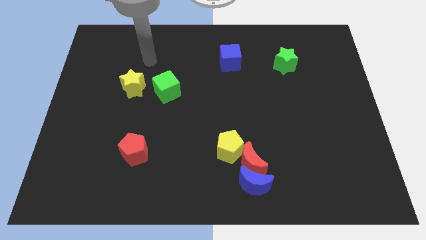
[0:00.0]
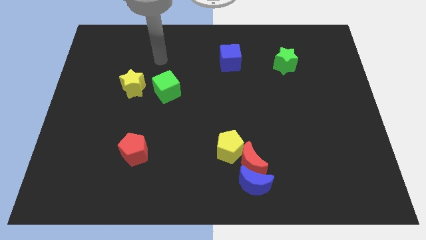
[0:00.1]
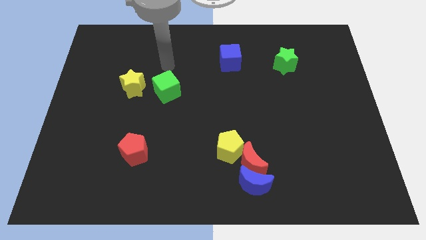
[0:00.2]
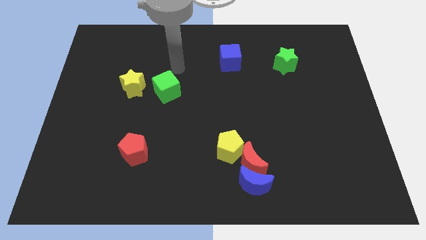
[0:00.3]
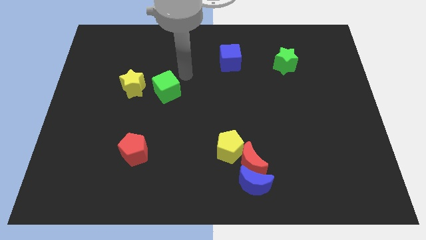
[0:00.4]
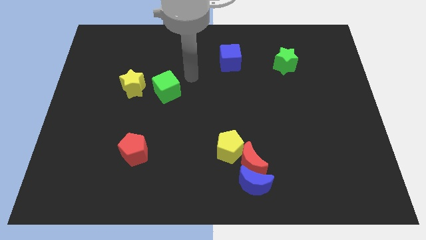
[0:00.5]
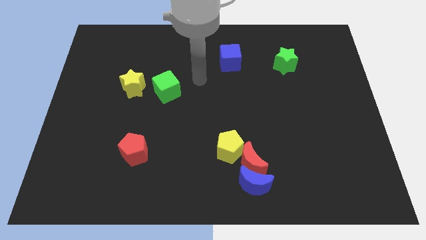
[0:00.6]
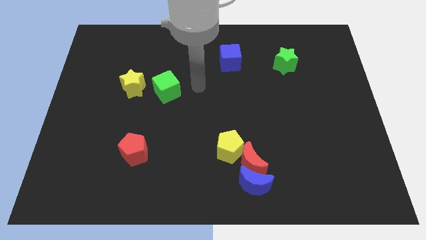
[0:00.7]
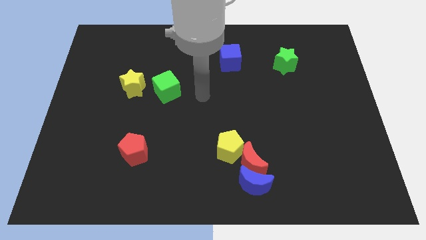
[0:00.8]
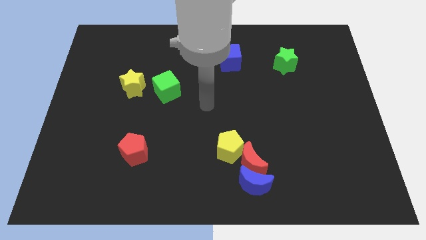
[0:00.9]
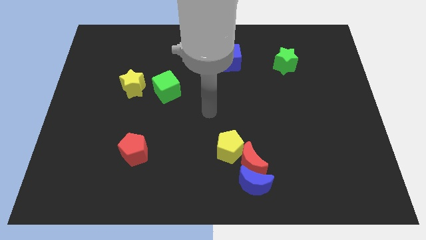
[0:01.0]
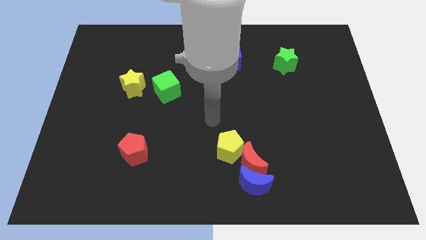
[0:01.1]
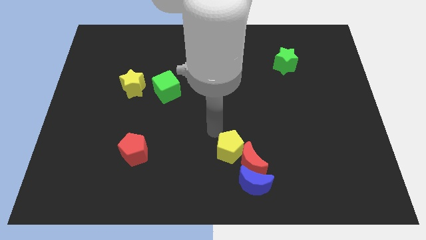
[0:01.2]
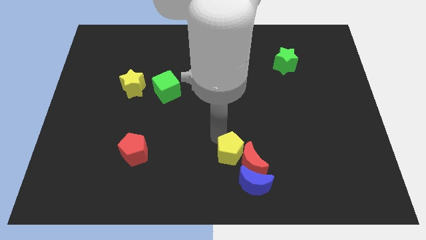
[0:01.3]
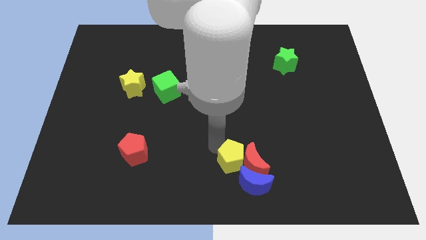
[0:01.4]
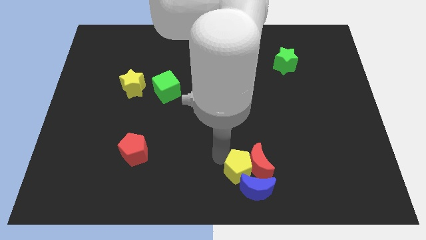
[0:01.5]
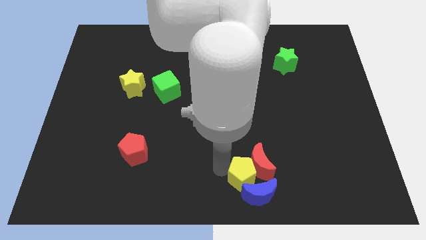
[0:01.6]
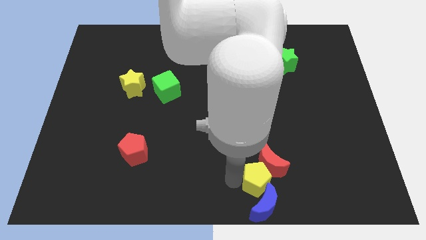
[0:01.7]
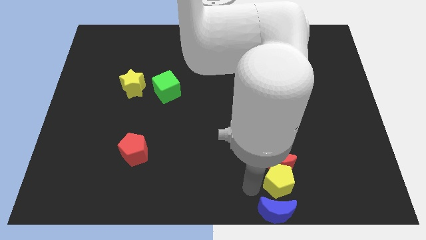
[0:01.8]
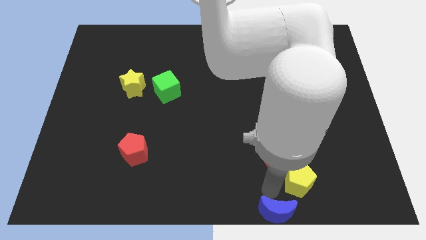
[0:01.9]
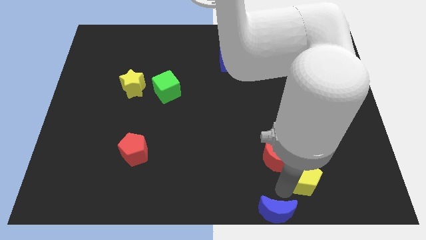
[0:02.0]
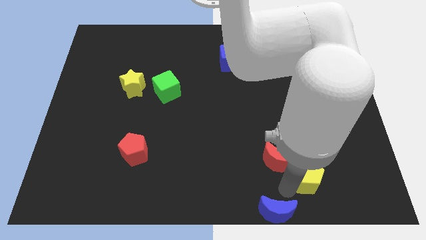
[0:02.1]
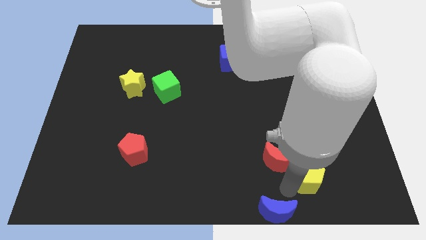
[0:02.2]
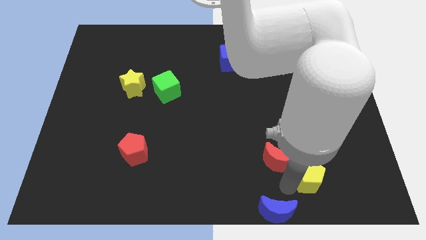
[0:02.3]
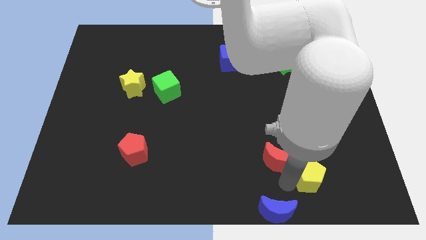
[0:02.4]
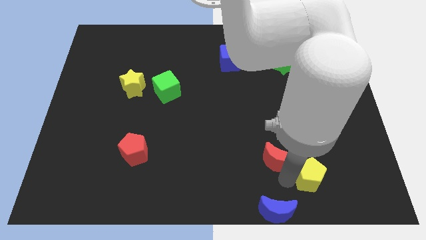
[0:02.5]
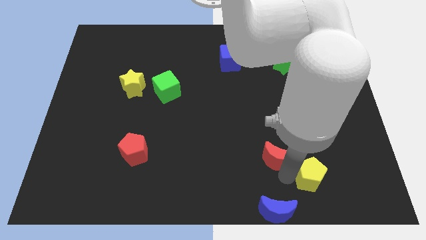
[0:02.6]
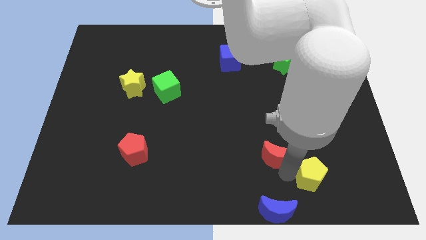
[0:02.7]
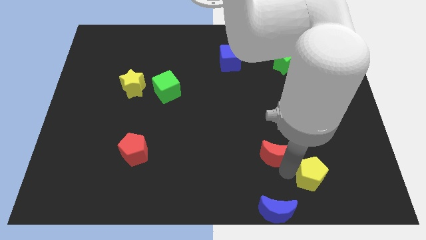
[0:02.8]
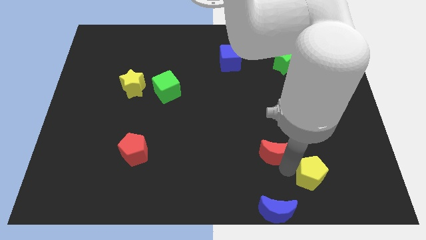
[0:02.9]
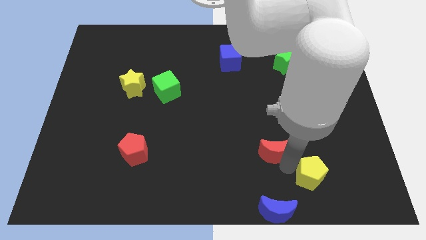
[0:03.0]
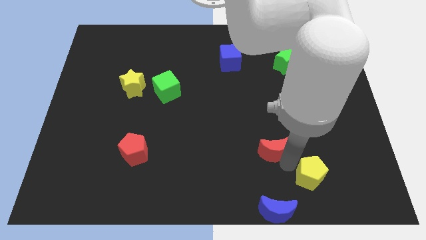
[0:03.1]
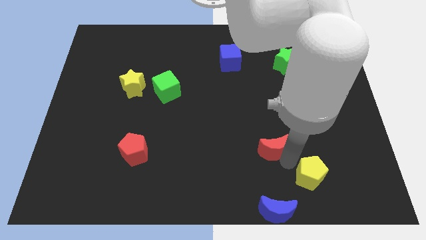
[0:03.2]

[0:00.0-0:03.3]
move the red moon away from the blue moon and yellow pentagon

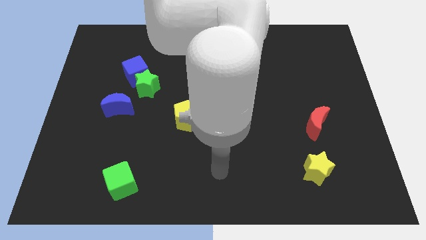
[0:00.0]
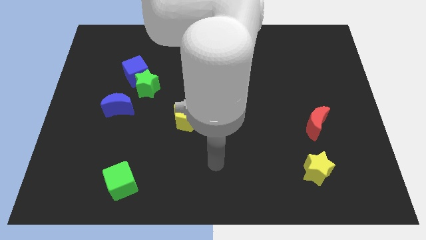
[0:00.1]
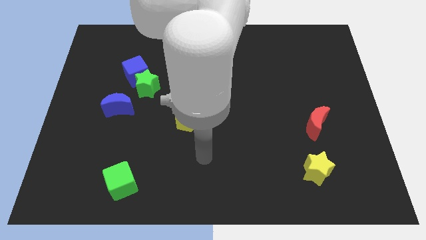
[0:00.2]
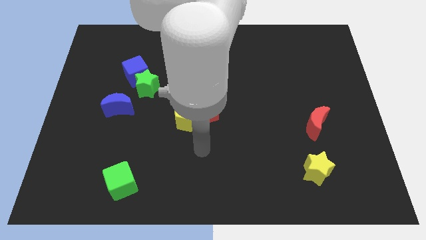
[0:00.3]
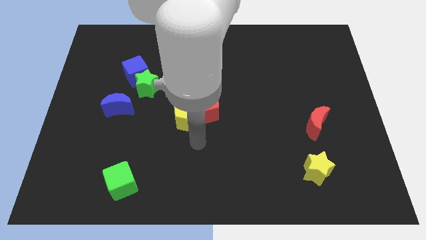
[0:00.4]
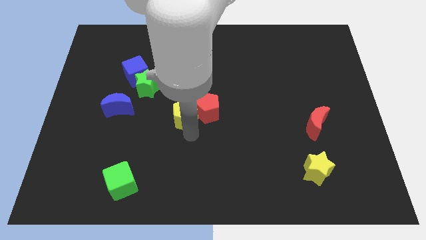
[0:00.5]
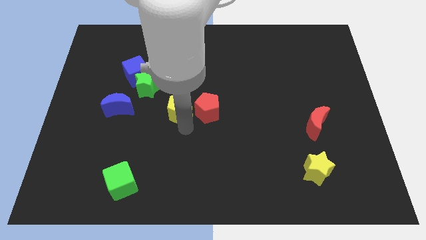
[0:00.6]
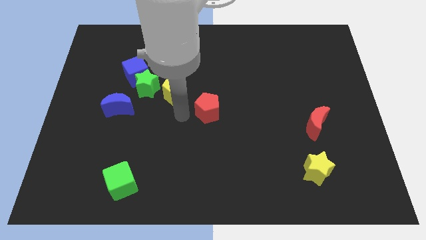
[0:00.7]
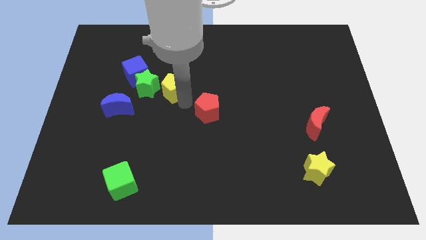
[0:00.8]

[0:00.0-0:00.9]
move the red pentagon away from the yellow pentagon

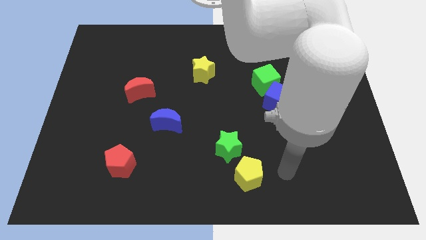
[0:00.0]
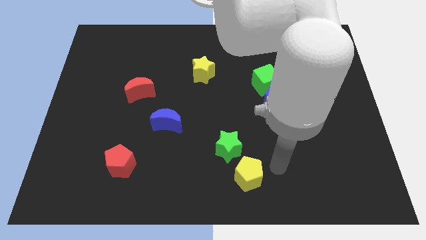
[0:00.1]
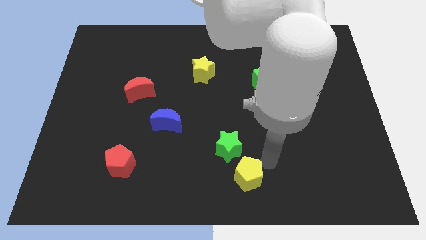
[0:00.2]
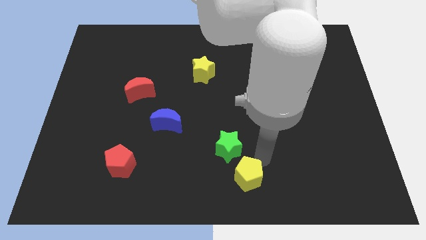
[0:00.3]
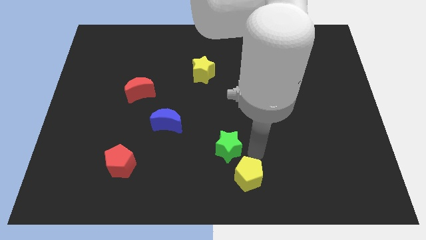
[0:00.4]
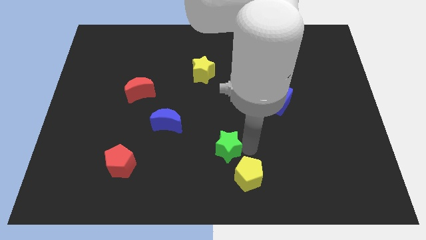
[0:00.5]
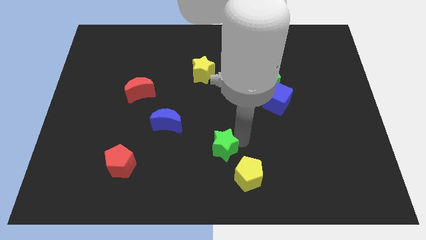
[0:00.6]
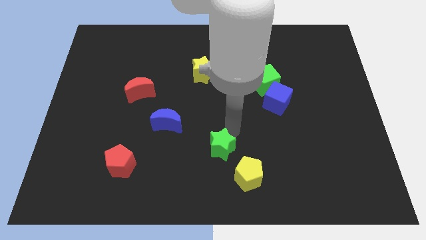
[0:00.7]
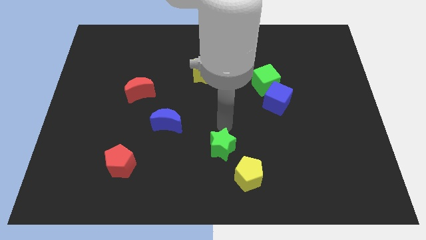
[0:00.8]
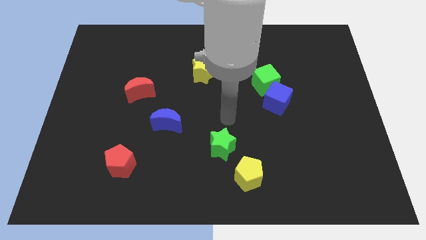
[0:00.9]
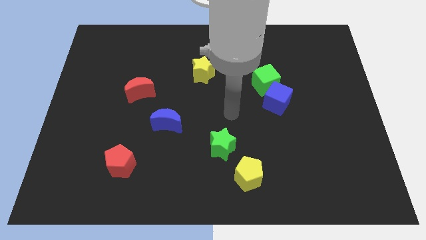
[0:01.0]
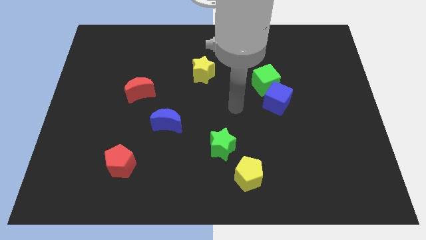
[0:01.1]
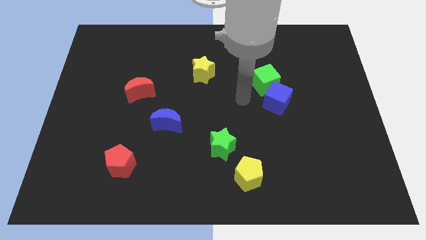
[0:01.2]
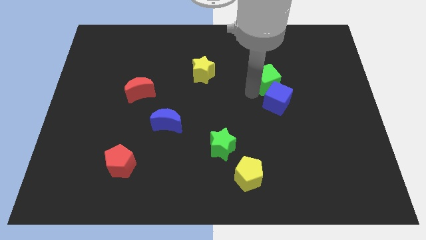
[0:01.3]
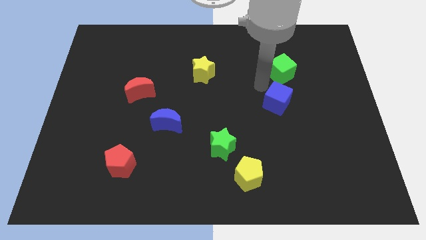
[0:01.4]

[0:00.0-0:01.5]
move the blue cube away from the green cube

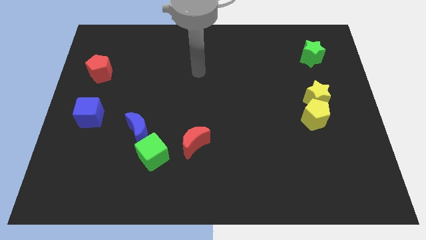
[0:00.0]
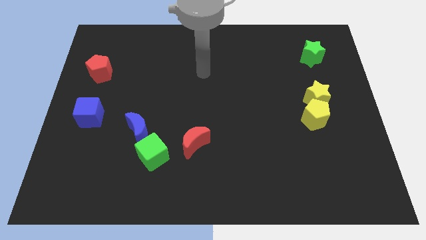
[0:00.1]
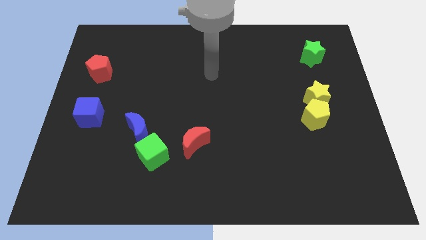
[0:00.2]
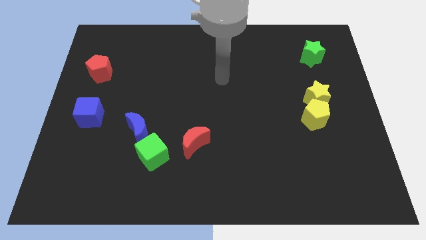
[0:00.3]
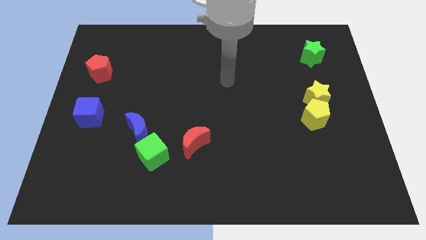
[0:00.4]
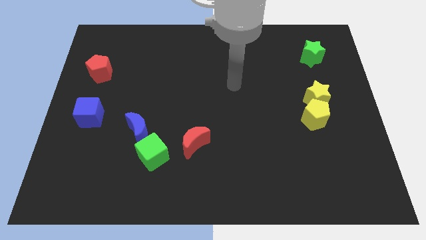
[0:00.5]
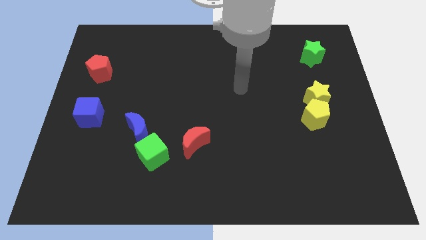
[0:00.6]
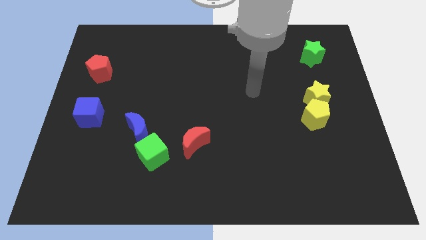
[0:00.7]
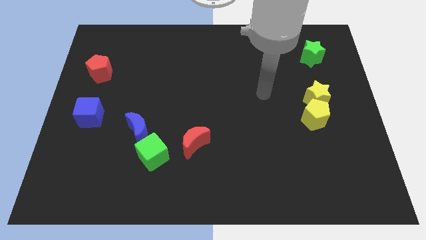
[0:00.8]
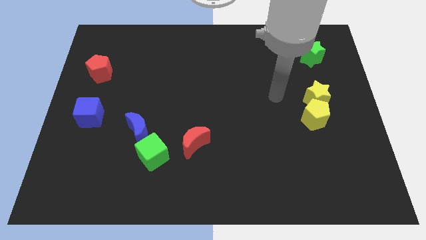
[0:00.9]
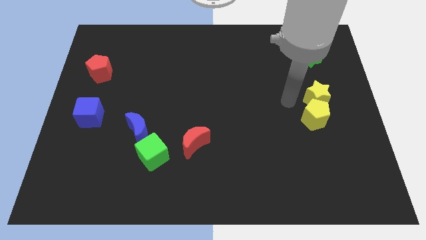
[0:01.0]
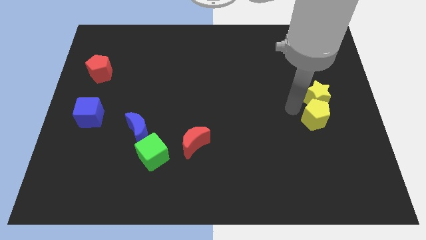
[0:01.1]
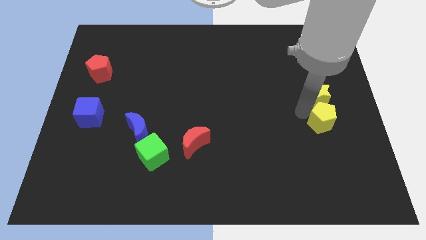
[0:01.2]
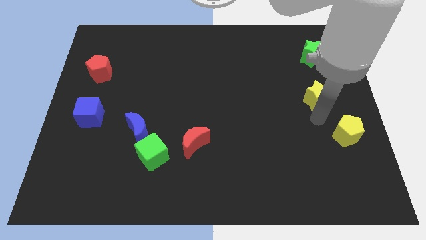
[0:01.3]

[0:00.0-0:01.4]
pull the yellow star apart from the yellow pentagon

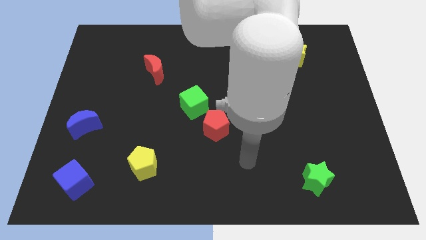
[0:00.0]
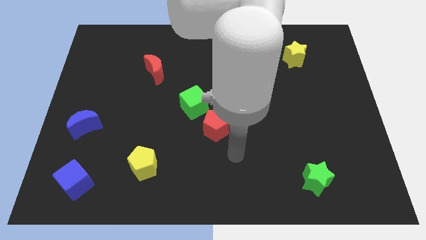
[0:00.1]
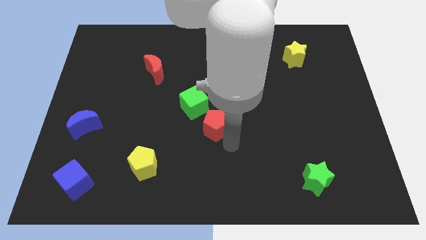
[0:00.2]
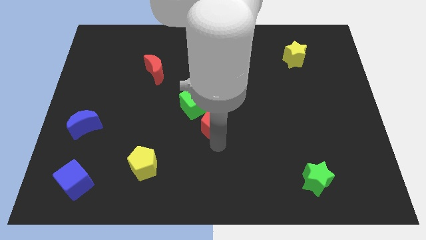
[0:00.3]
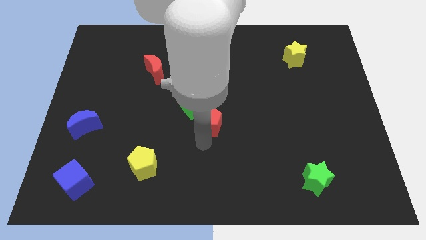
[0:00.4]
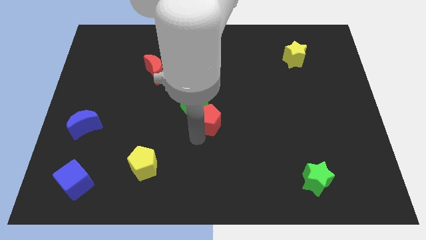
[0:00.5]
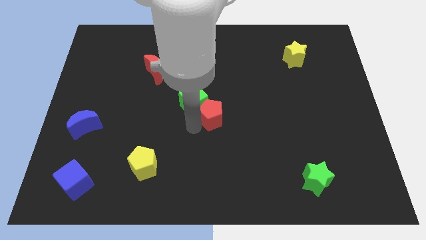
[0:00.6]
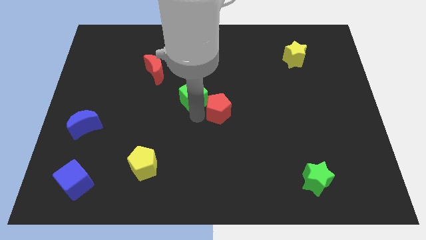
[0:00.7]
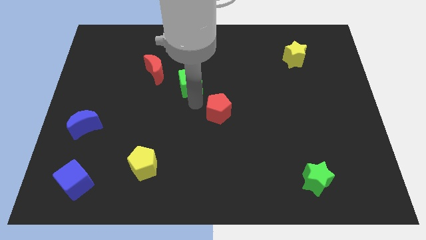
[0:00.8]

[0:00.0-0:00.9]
move the red pentagon away from the green cube

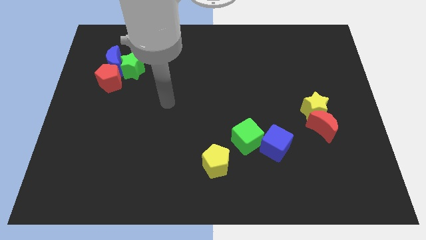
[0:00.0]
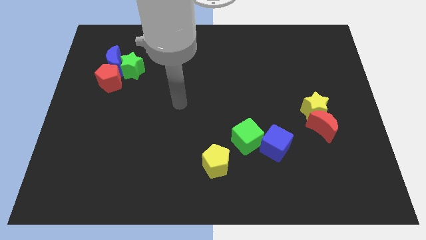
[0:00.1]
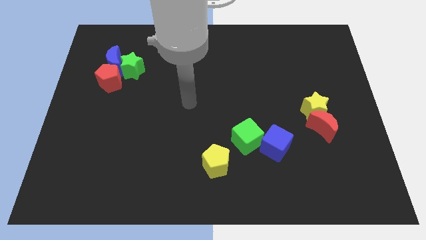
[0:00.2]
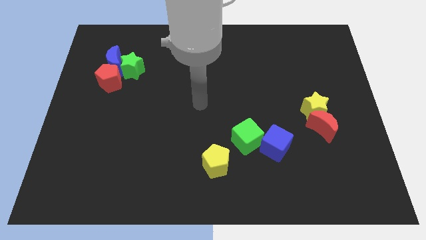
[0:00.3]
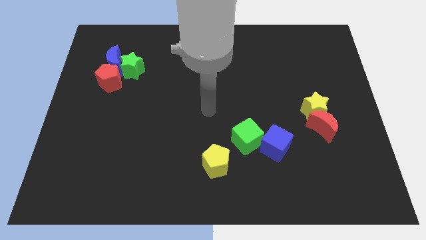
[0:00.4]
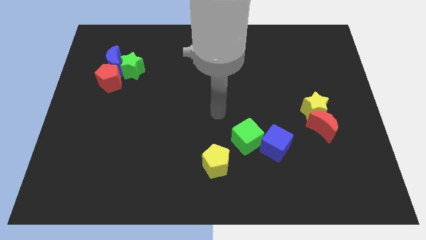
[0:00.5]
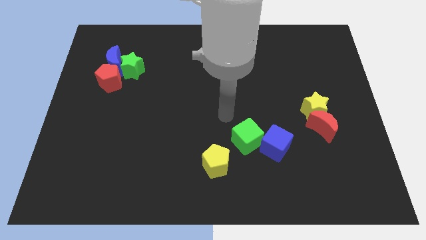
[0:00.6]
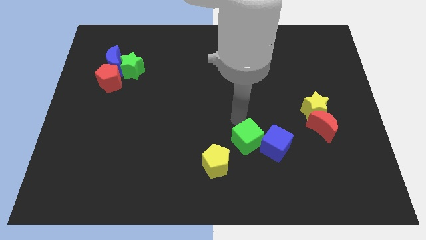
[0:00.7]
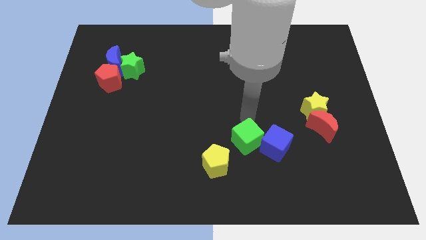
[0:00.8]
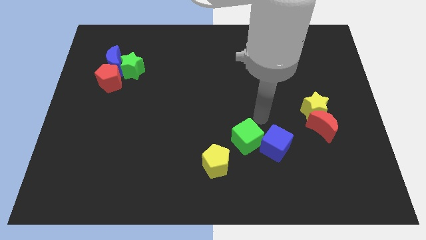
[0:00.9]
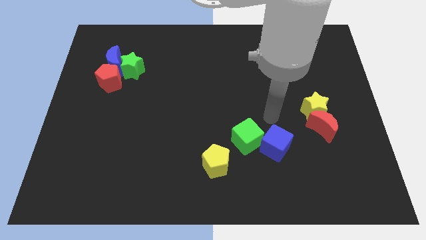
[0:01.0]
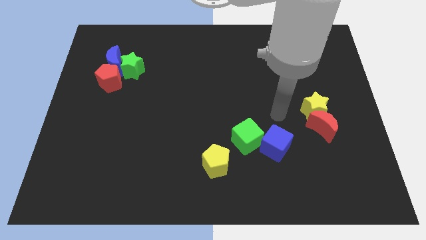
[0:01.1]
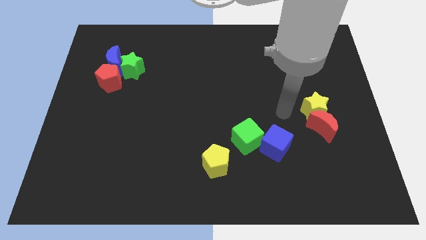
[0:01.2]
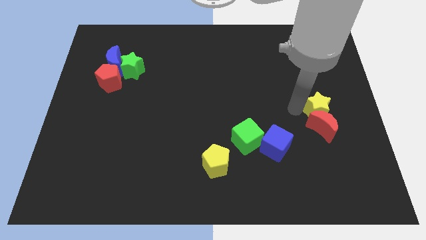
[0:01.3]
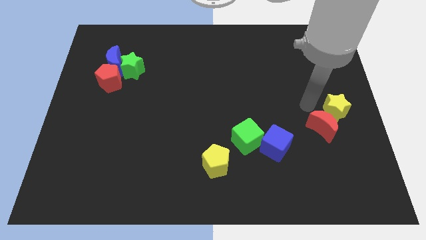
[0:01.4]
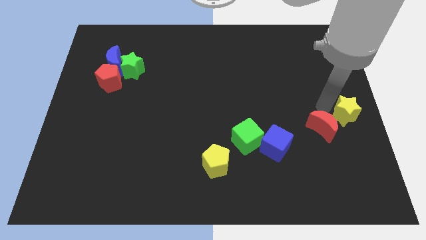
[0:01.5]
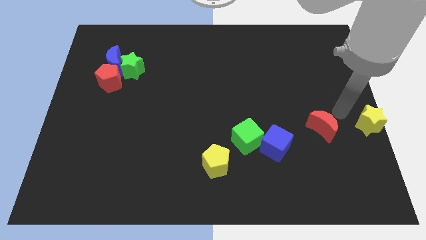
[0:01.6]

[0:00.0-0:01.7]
pull the red moon apart from the yellow star
